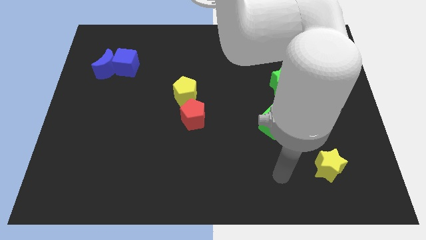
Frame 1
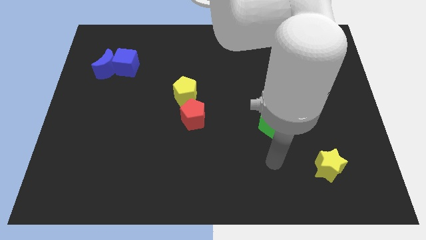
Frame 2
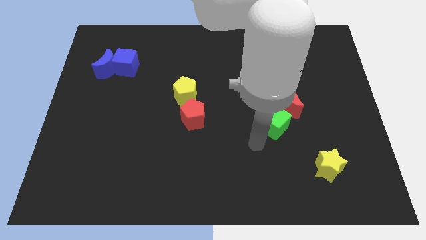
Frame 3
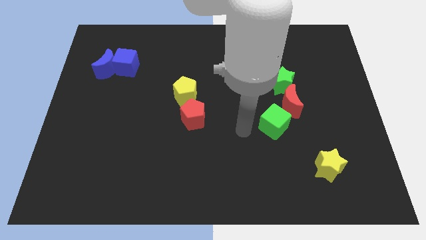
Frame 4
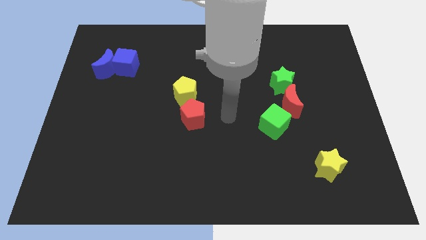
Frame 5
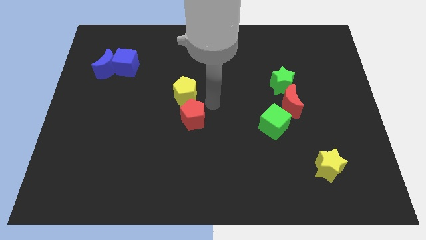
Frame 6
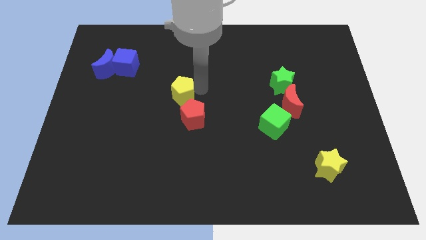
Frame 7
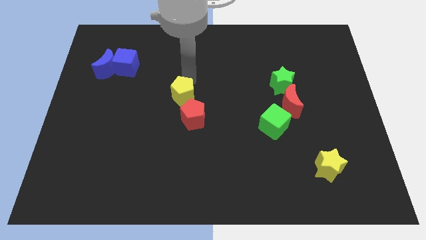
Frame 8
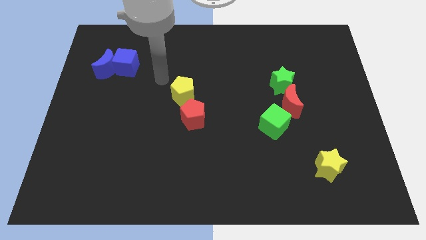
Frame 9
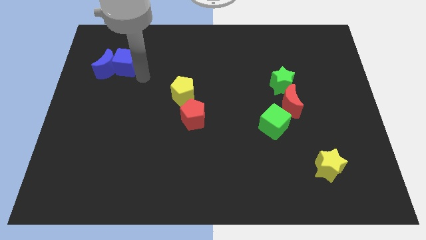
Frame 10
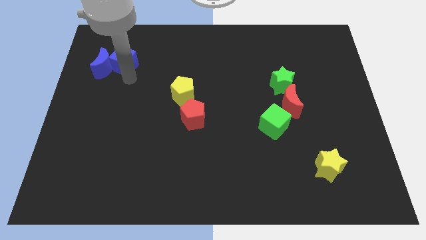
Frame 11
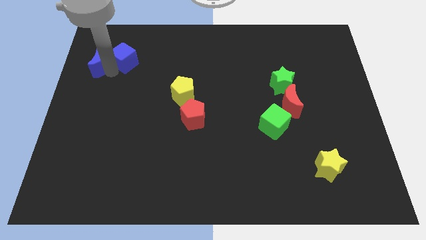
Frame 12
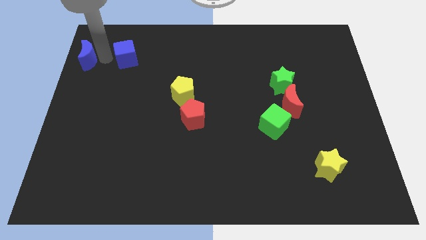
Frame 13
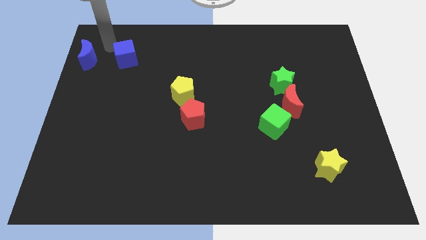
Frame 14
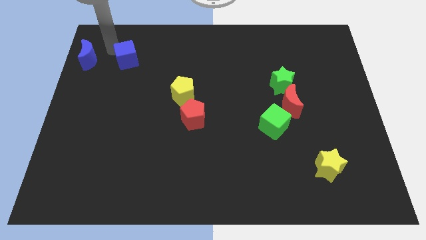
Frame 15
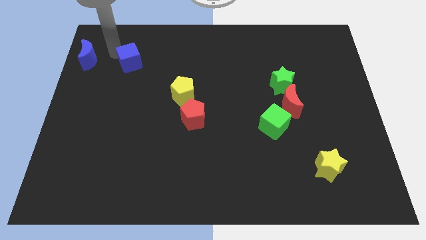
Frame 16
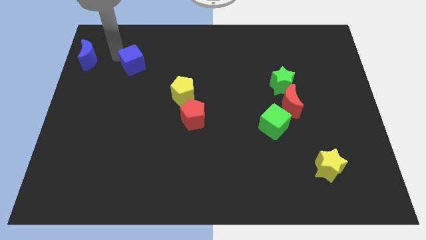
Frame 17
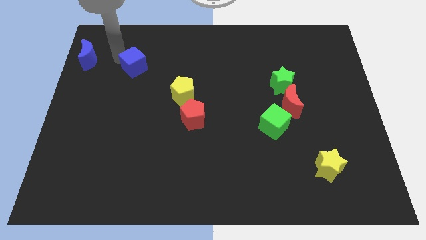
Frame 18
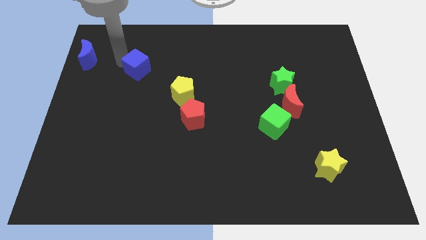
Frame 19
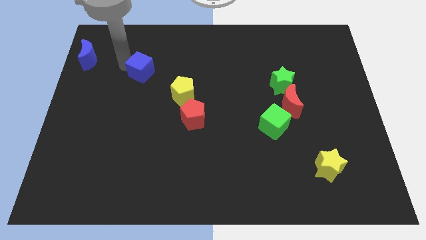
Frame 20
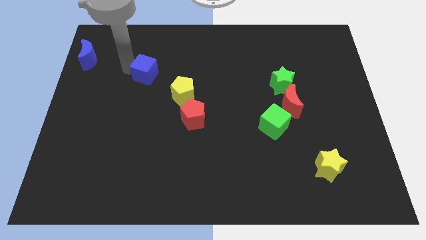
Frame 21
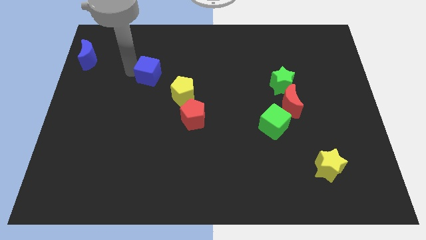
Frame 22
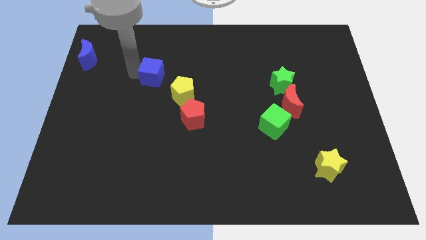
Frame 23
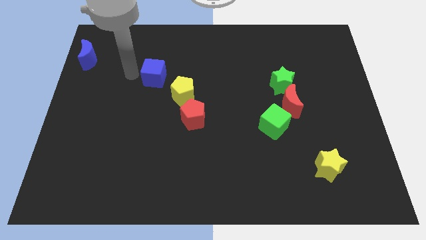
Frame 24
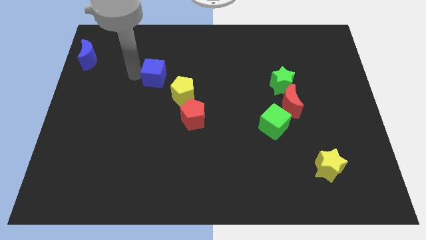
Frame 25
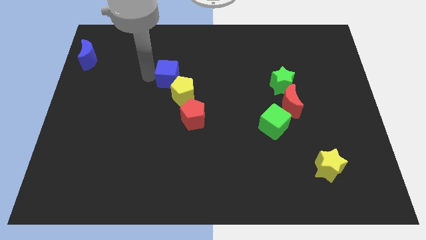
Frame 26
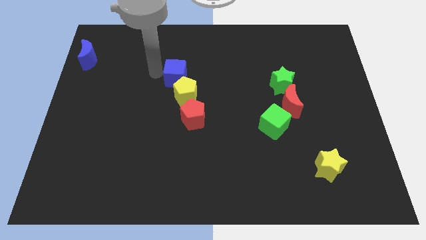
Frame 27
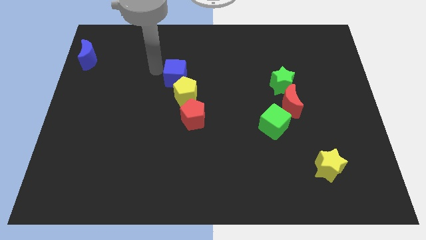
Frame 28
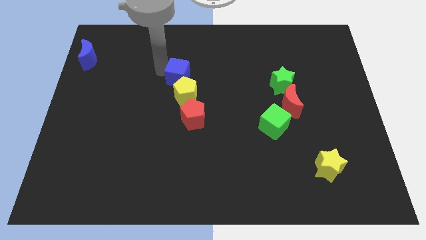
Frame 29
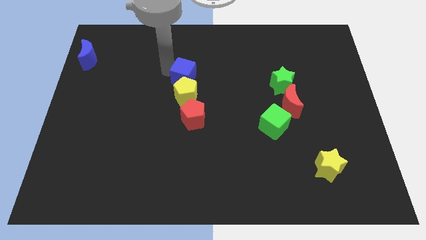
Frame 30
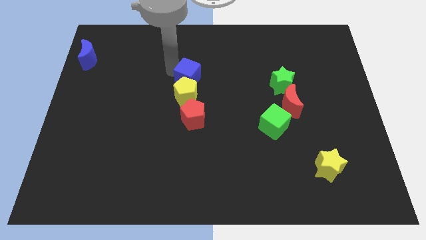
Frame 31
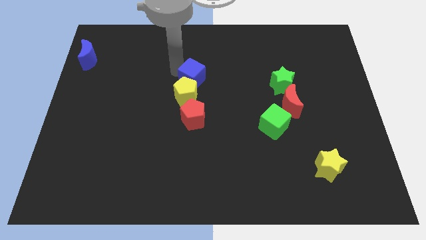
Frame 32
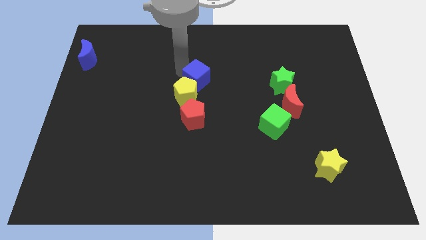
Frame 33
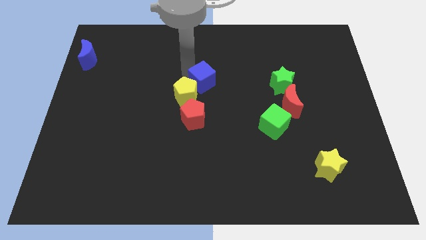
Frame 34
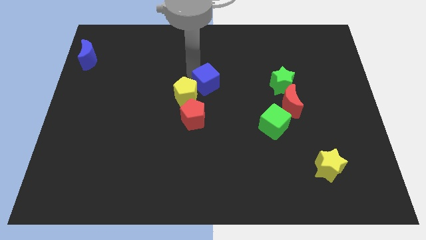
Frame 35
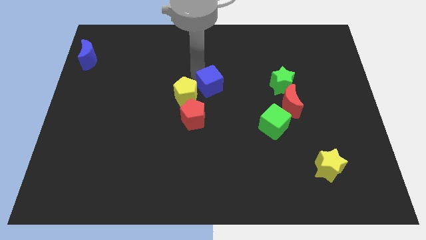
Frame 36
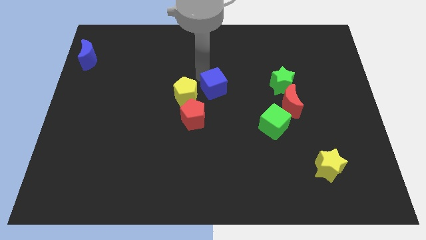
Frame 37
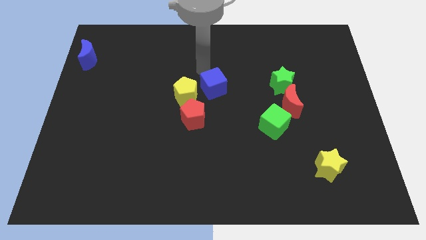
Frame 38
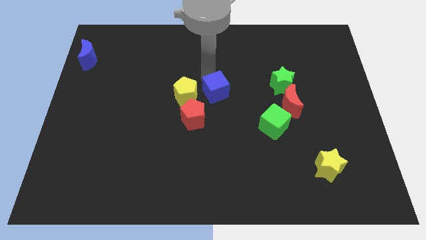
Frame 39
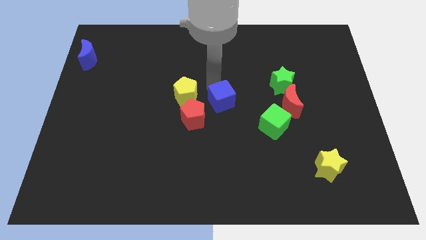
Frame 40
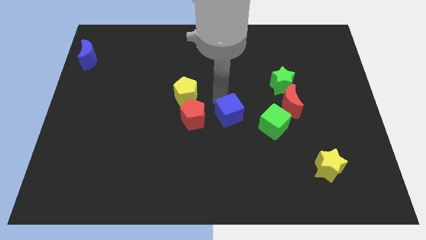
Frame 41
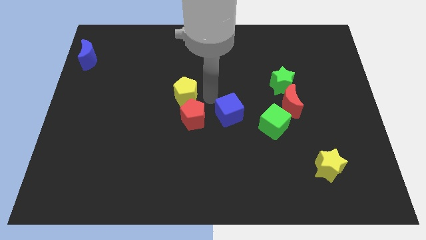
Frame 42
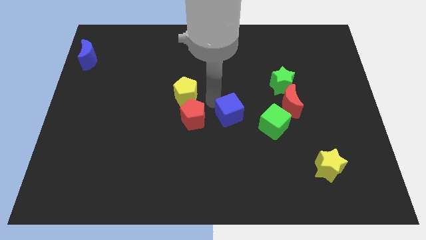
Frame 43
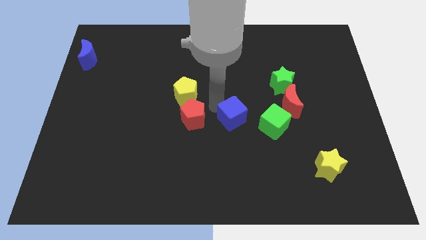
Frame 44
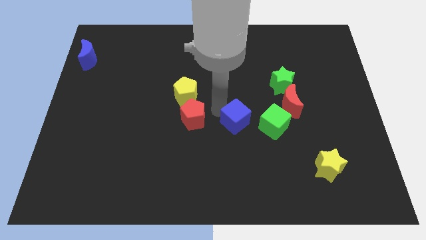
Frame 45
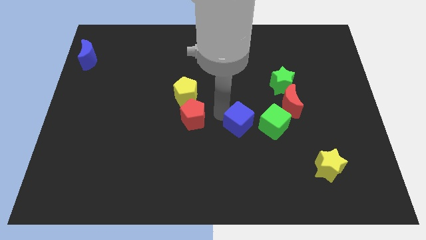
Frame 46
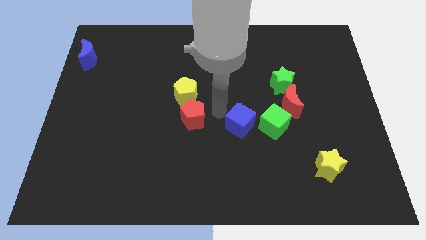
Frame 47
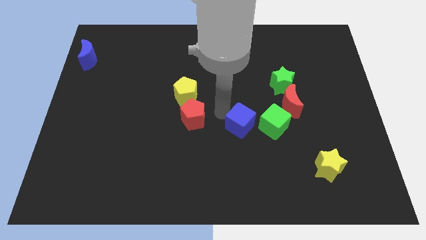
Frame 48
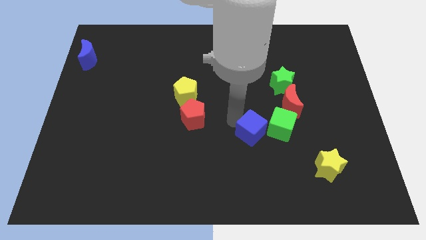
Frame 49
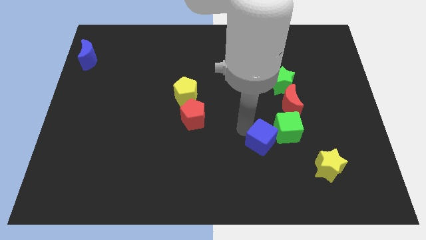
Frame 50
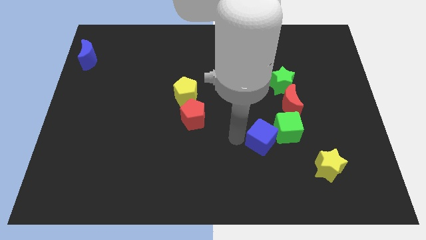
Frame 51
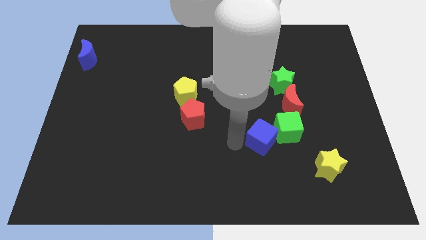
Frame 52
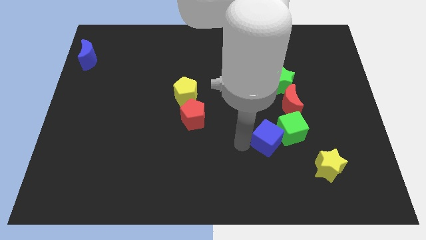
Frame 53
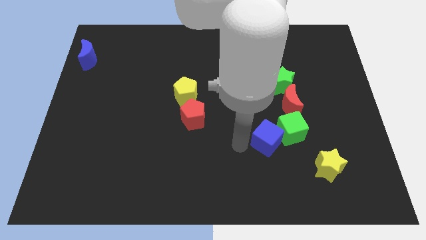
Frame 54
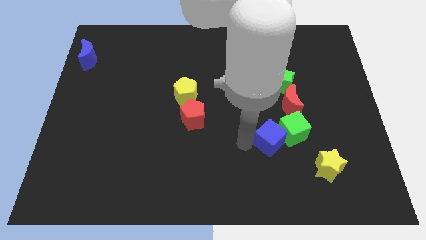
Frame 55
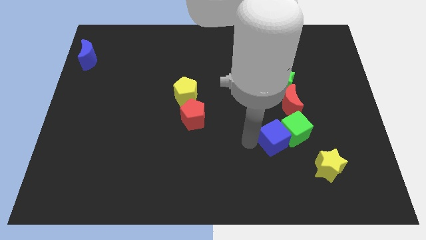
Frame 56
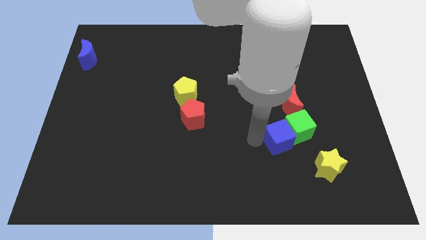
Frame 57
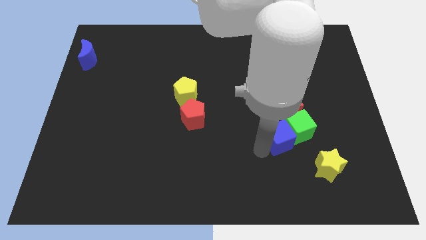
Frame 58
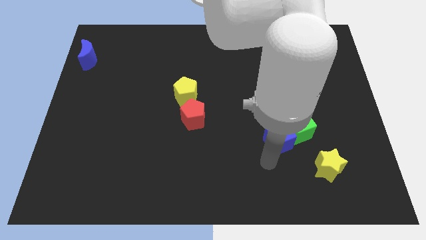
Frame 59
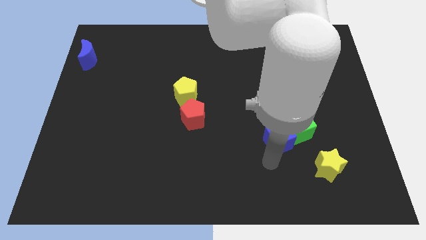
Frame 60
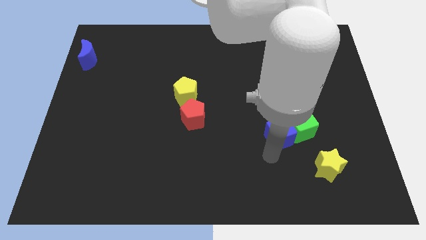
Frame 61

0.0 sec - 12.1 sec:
move the blue cube below the green star

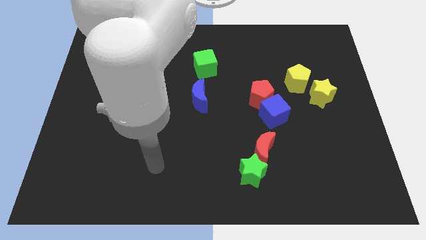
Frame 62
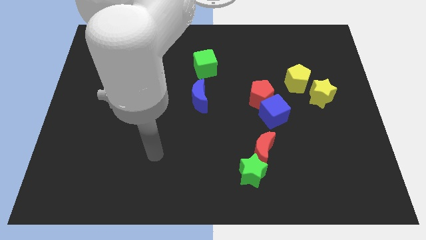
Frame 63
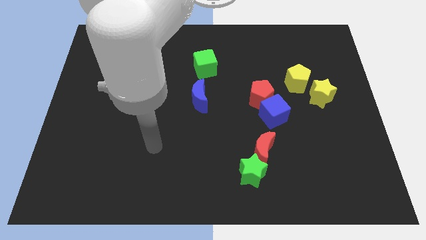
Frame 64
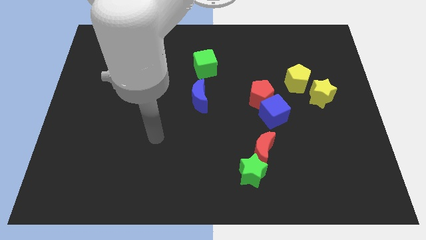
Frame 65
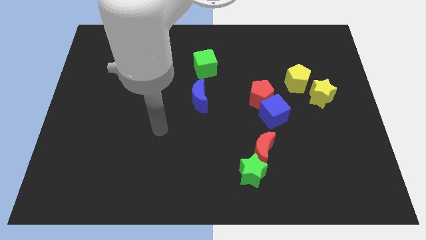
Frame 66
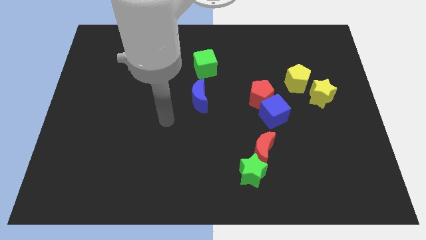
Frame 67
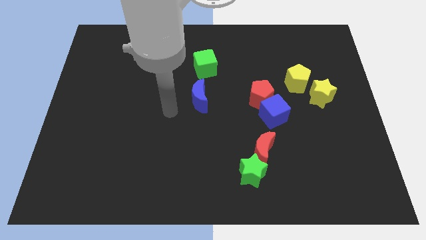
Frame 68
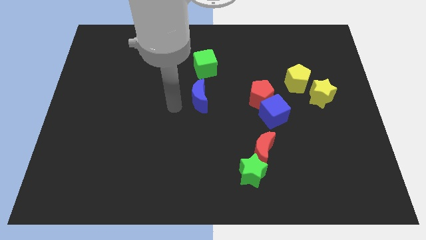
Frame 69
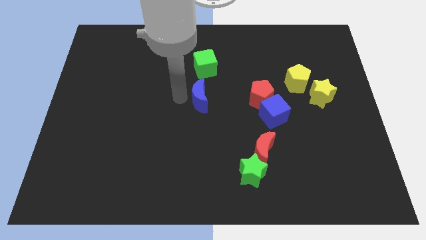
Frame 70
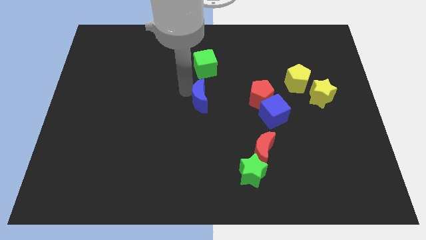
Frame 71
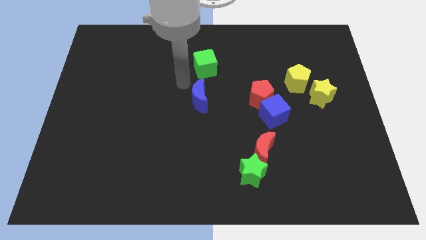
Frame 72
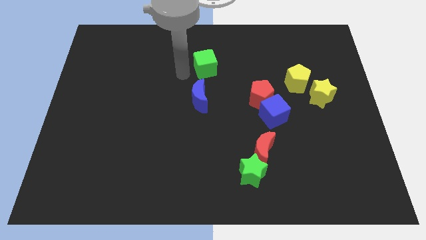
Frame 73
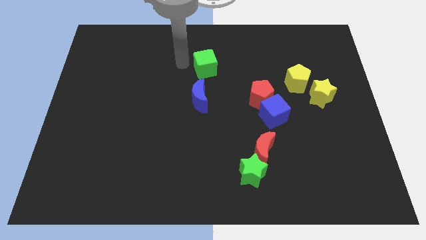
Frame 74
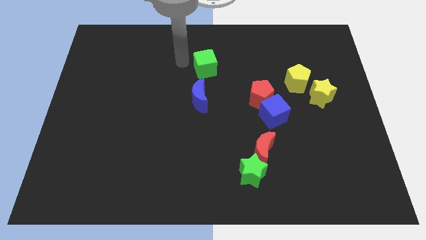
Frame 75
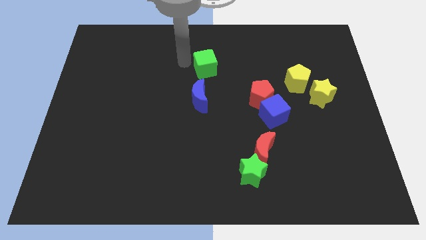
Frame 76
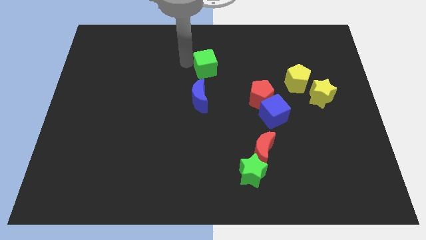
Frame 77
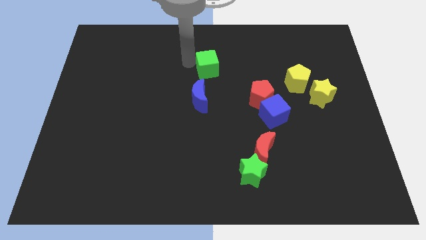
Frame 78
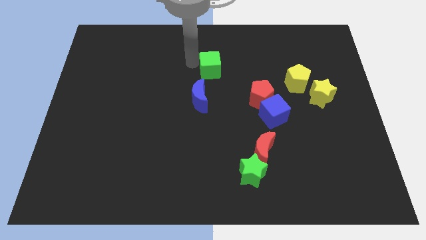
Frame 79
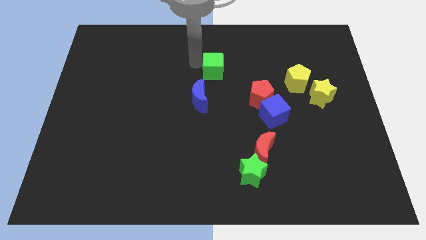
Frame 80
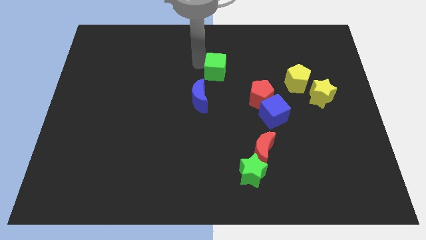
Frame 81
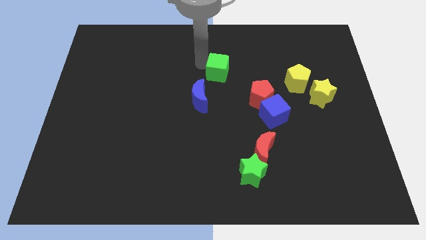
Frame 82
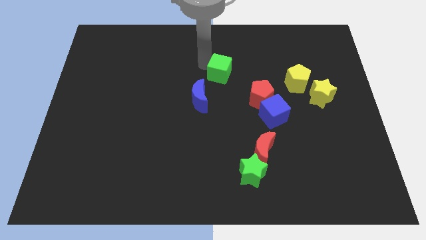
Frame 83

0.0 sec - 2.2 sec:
put the green cube diagonally up and to the left of the red pentagon
